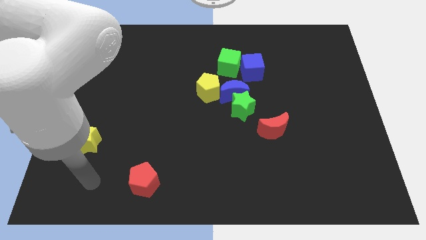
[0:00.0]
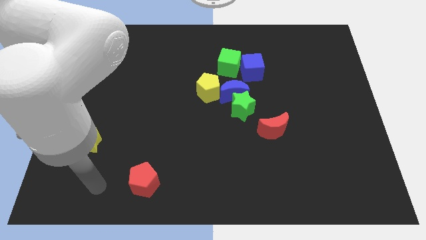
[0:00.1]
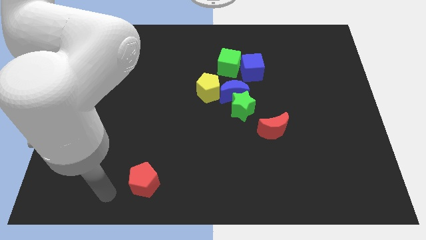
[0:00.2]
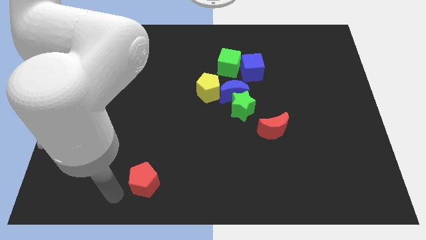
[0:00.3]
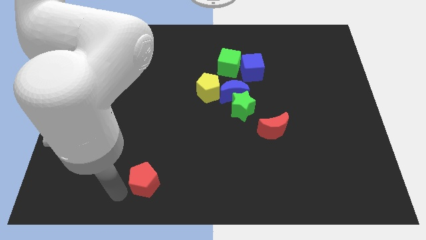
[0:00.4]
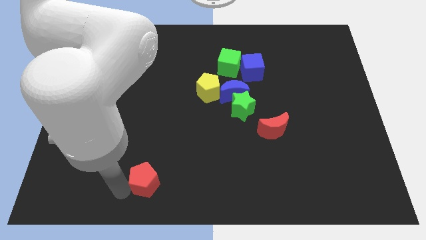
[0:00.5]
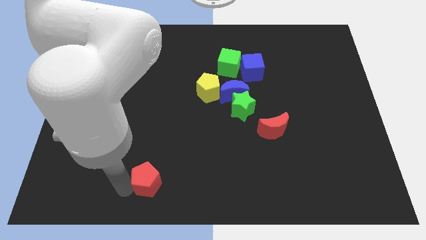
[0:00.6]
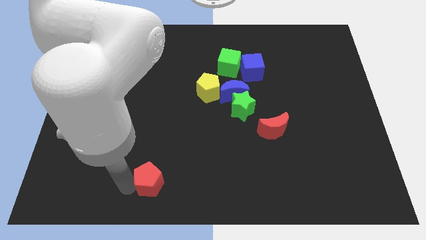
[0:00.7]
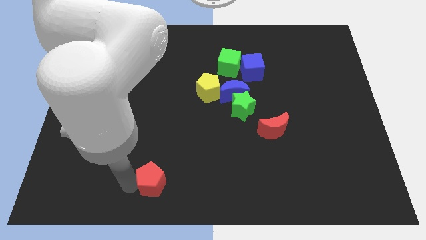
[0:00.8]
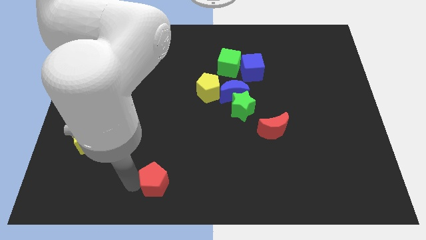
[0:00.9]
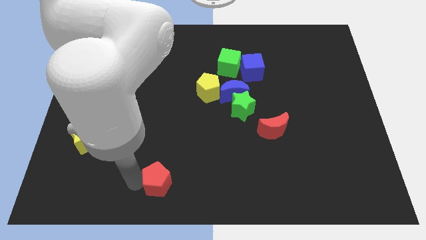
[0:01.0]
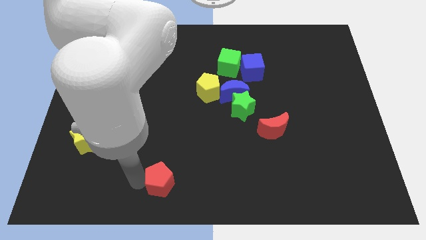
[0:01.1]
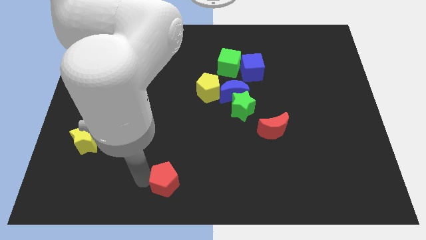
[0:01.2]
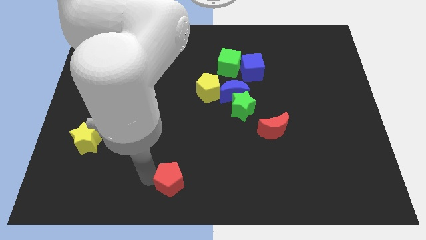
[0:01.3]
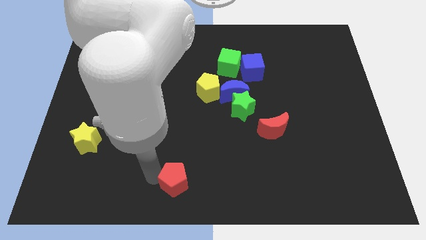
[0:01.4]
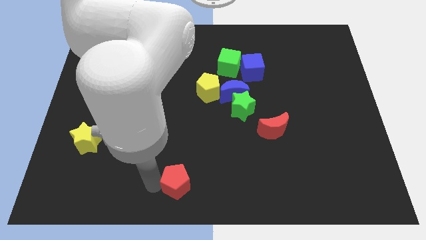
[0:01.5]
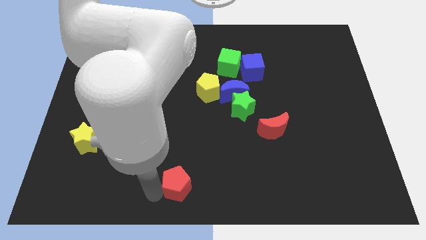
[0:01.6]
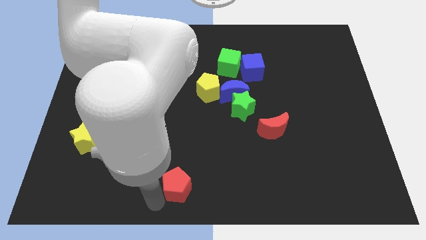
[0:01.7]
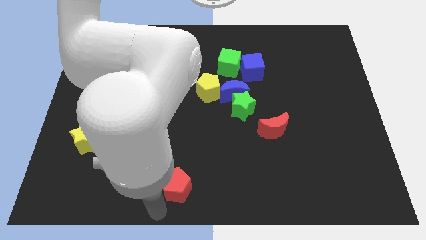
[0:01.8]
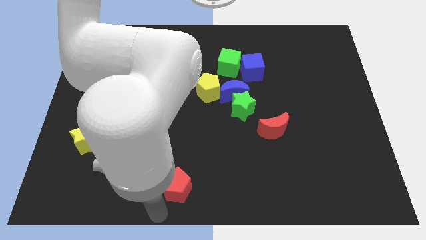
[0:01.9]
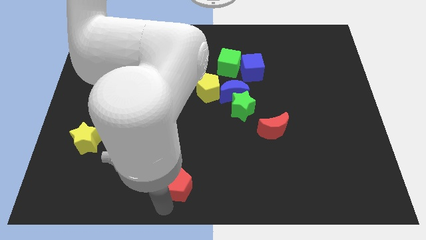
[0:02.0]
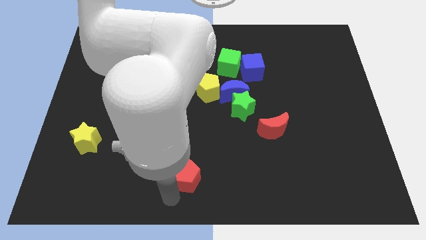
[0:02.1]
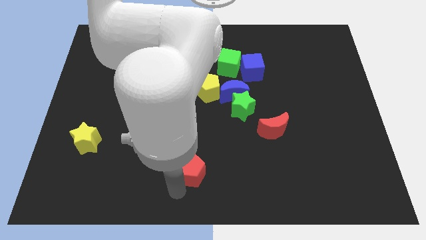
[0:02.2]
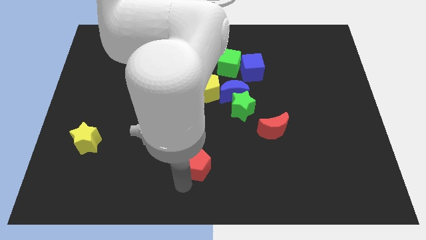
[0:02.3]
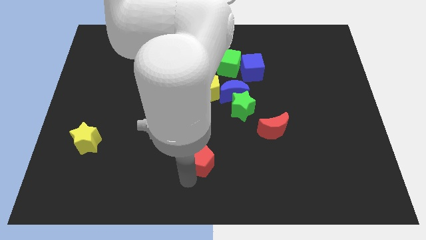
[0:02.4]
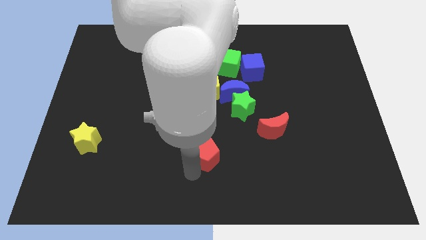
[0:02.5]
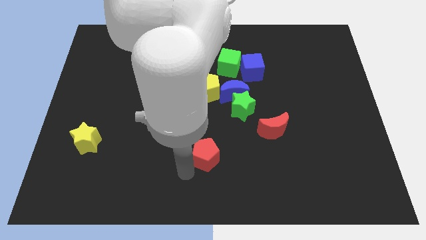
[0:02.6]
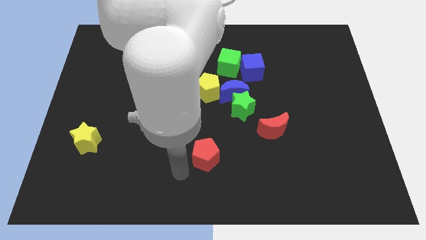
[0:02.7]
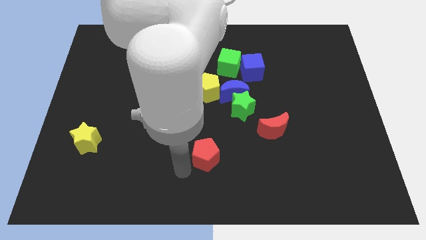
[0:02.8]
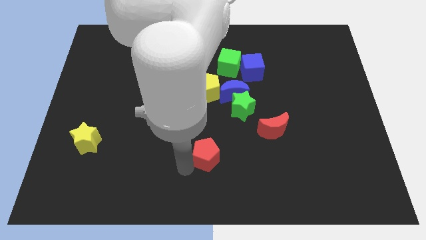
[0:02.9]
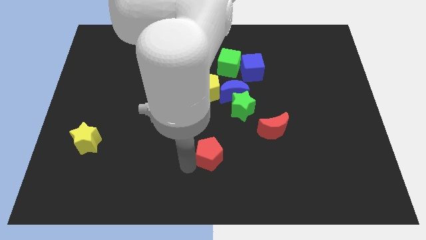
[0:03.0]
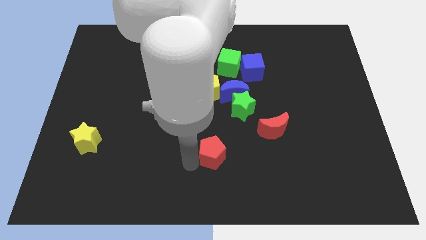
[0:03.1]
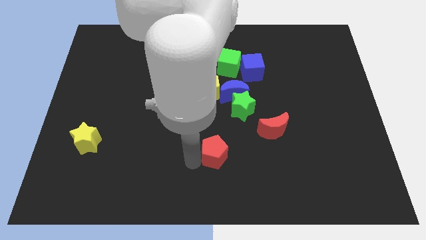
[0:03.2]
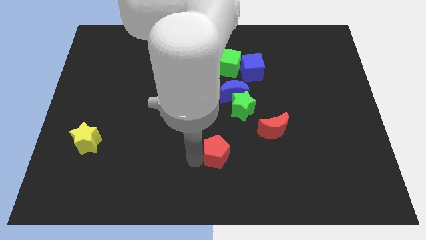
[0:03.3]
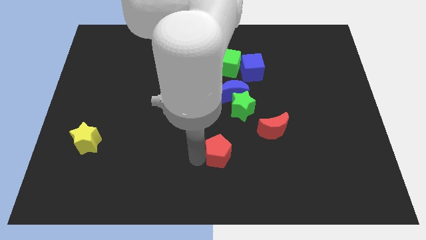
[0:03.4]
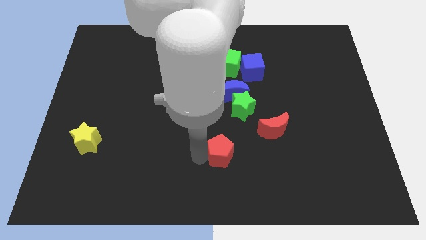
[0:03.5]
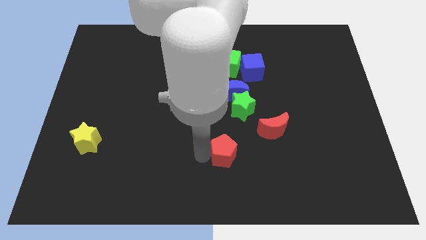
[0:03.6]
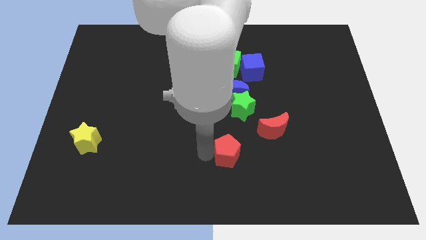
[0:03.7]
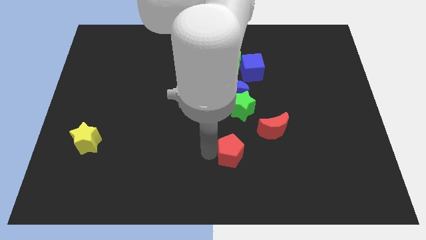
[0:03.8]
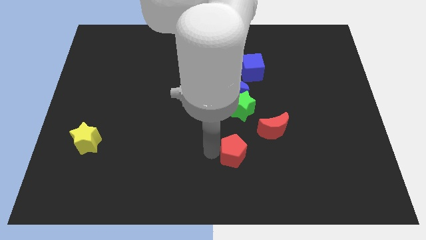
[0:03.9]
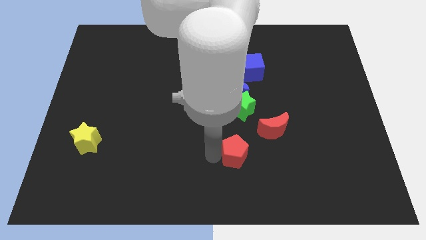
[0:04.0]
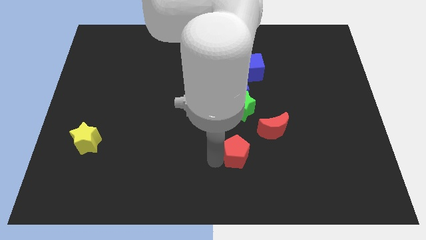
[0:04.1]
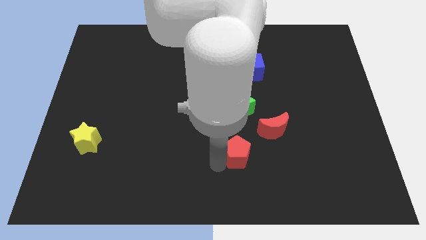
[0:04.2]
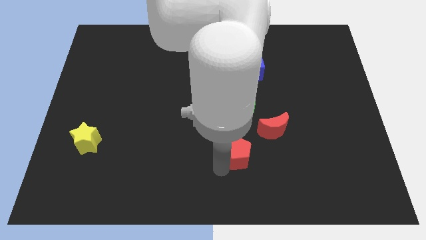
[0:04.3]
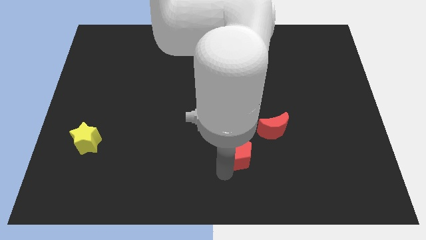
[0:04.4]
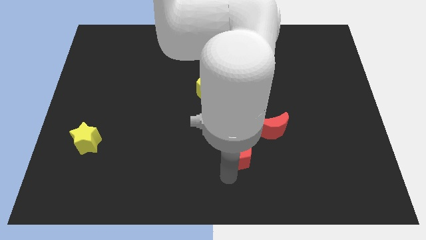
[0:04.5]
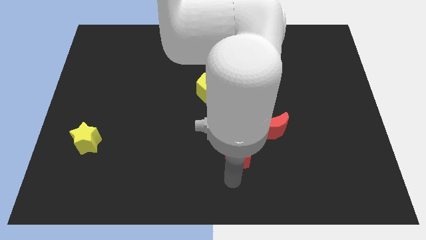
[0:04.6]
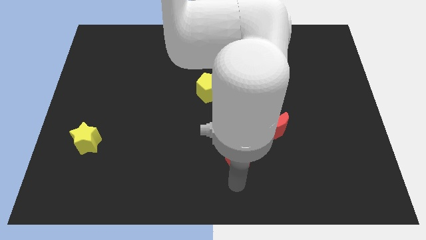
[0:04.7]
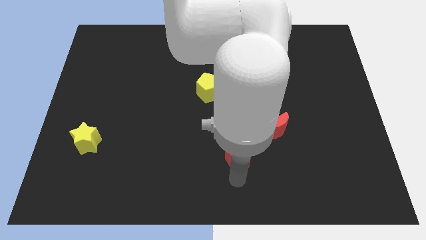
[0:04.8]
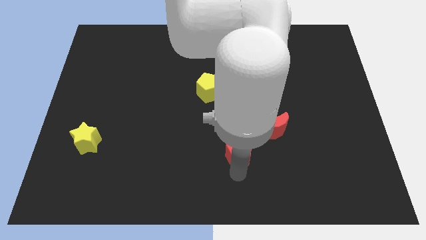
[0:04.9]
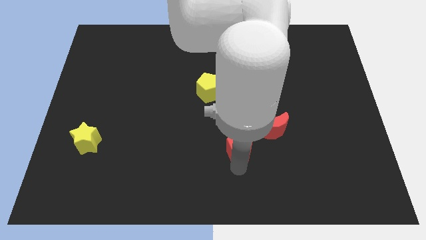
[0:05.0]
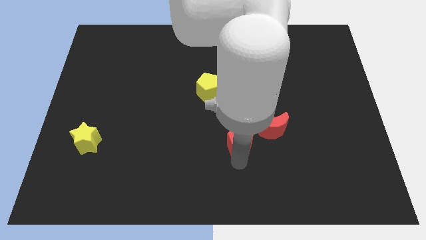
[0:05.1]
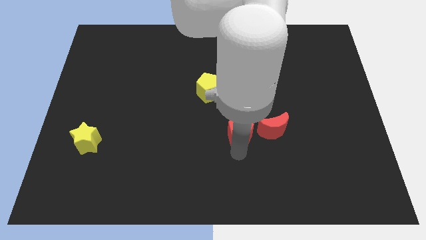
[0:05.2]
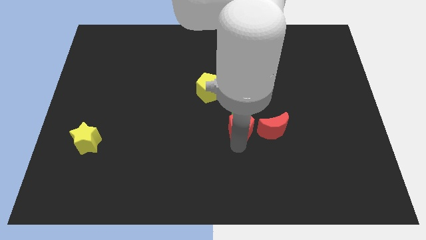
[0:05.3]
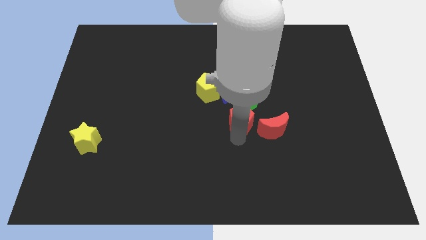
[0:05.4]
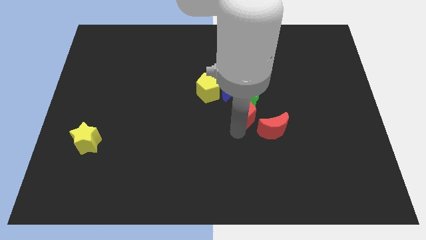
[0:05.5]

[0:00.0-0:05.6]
put the red pentagon to the bottom right side of the blue moon
